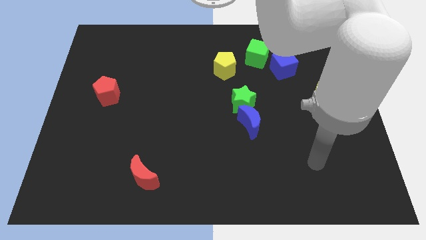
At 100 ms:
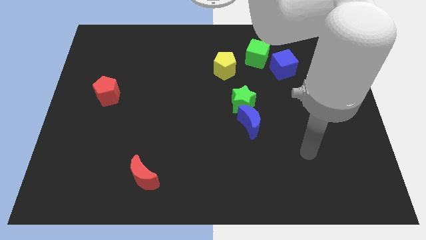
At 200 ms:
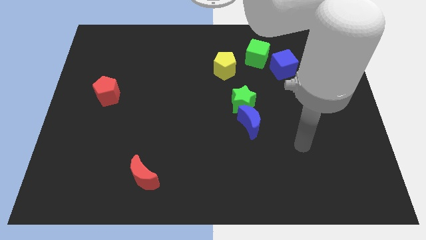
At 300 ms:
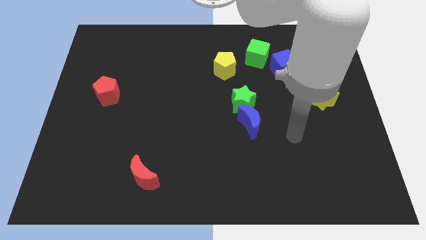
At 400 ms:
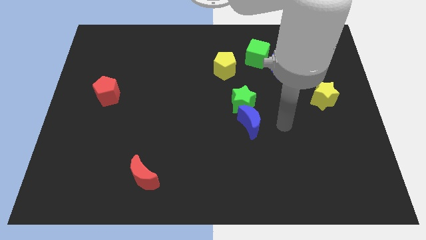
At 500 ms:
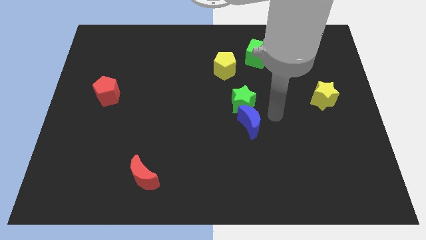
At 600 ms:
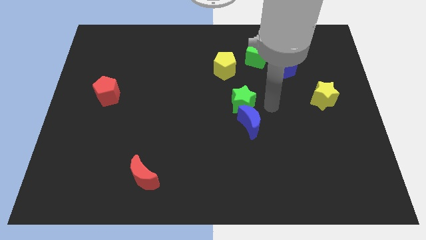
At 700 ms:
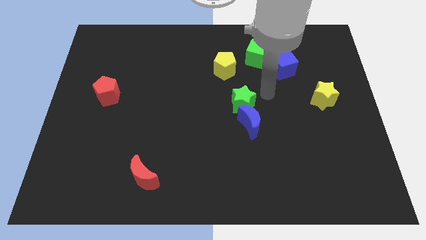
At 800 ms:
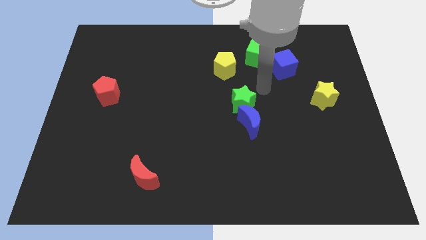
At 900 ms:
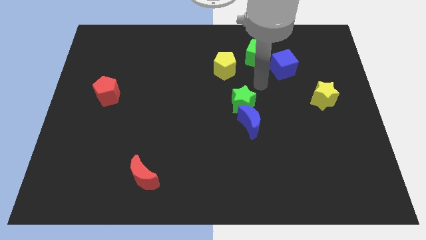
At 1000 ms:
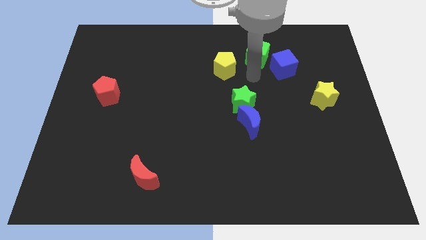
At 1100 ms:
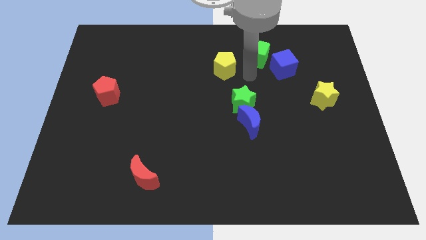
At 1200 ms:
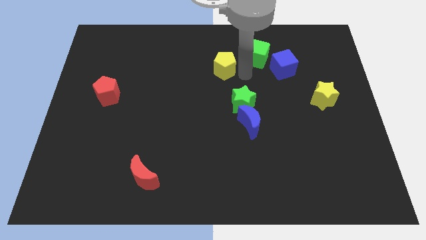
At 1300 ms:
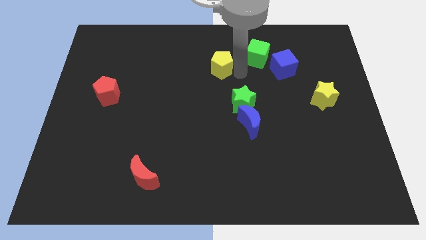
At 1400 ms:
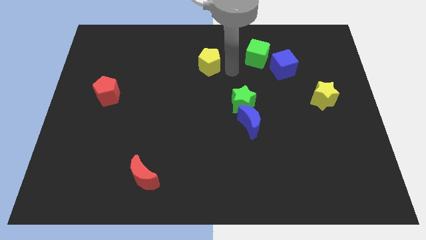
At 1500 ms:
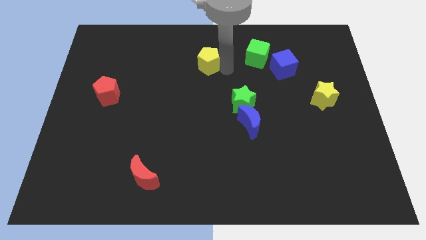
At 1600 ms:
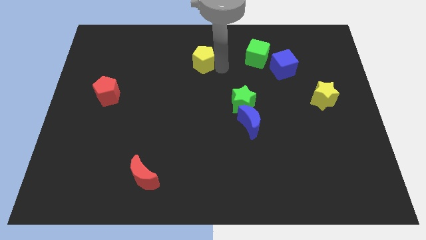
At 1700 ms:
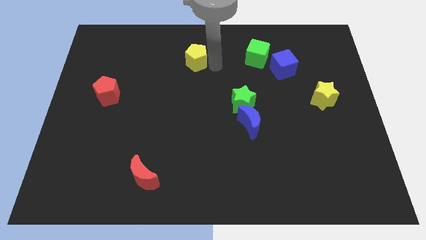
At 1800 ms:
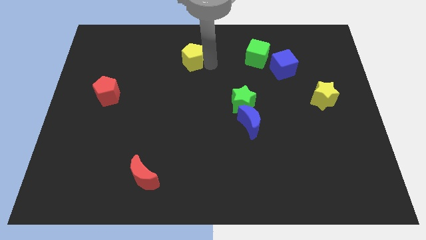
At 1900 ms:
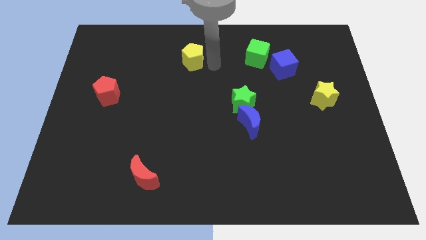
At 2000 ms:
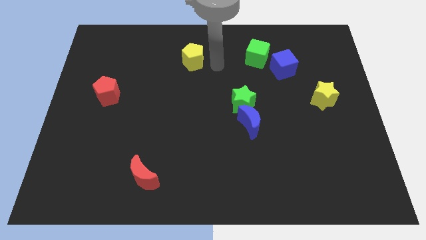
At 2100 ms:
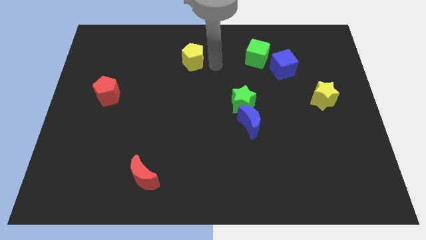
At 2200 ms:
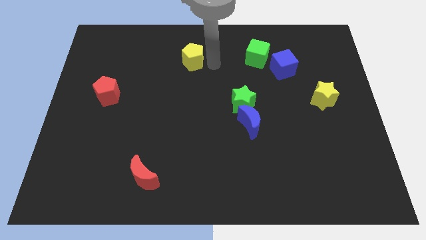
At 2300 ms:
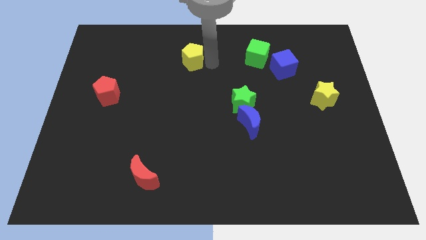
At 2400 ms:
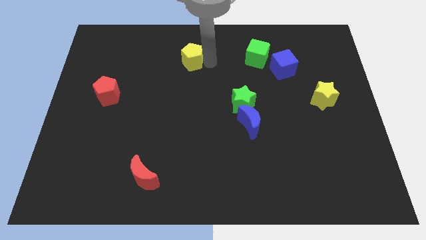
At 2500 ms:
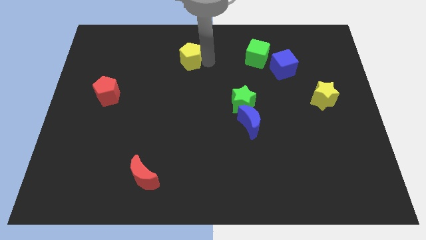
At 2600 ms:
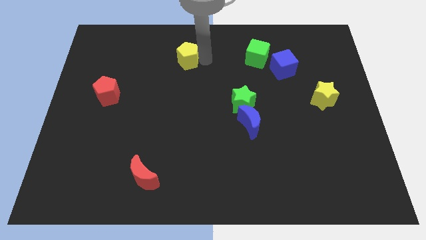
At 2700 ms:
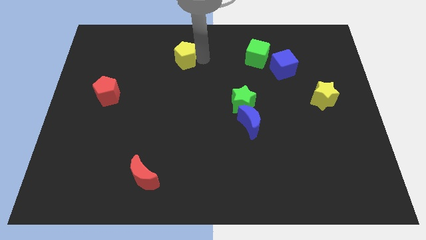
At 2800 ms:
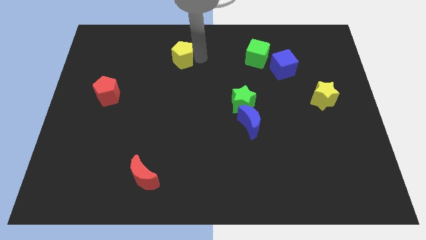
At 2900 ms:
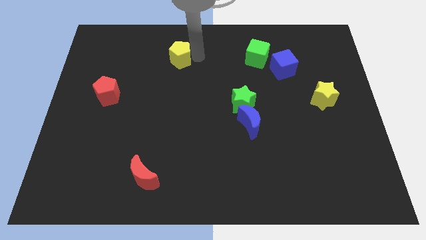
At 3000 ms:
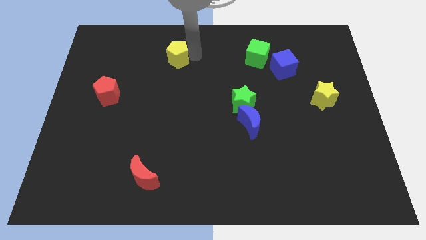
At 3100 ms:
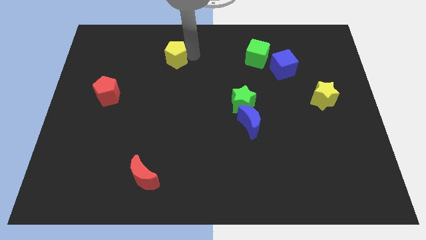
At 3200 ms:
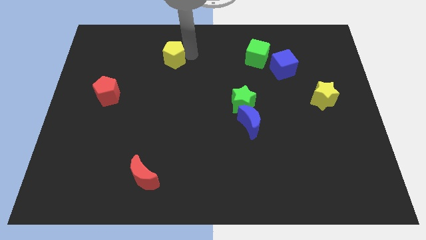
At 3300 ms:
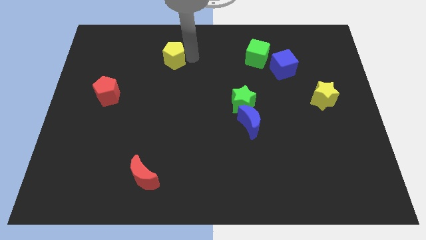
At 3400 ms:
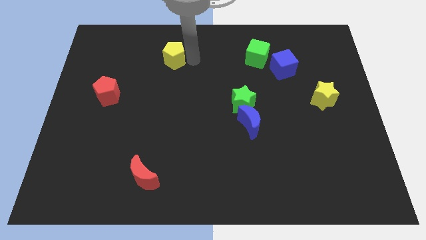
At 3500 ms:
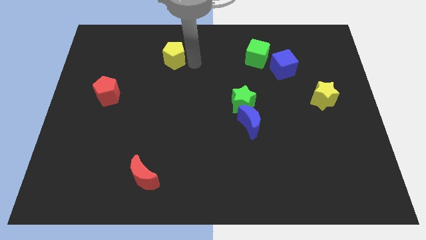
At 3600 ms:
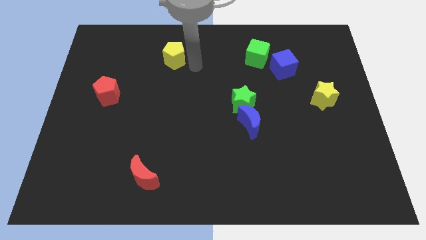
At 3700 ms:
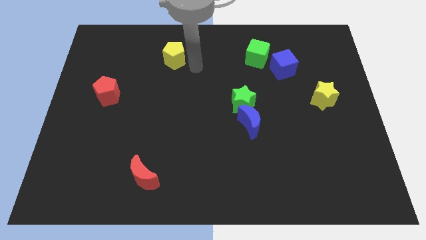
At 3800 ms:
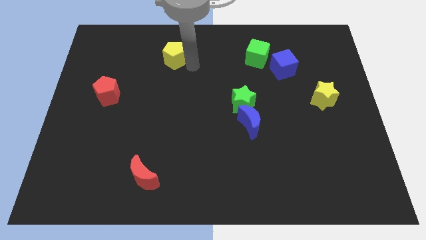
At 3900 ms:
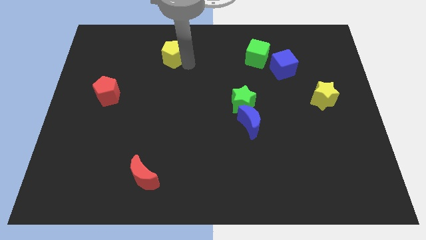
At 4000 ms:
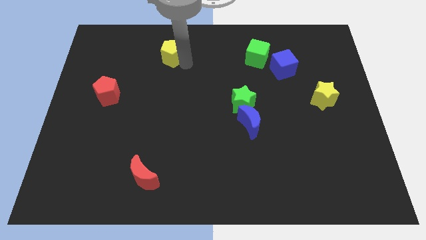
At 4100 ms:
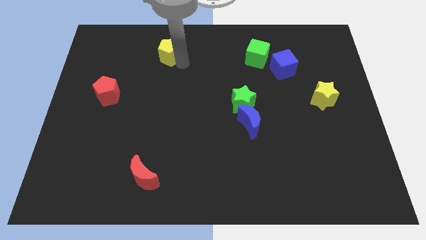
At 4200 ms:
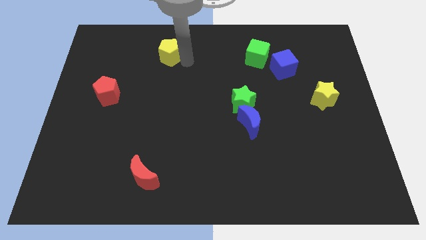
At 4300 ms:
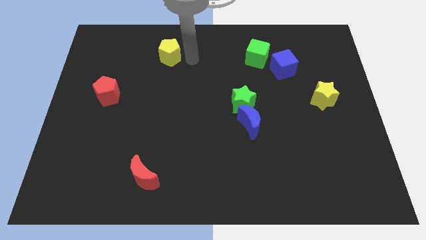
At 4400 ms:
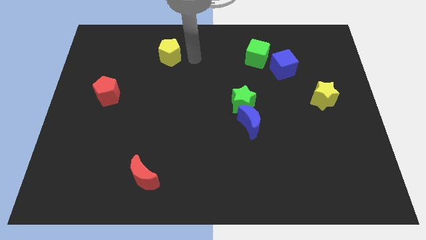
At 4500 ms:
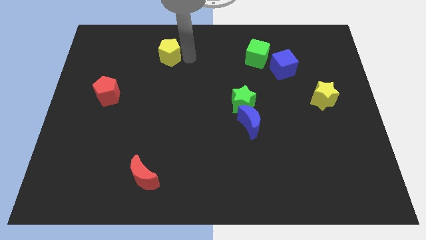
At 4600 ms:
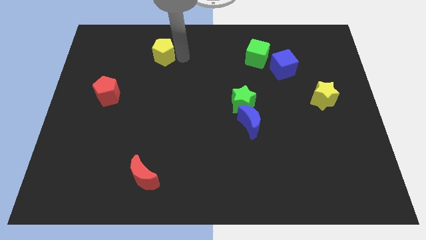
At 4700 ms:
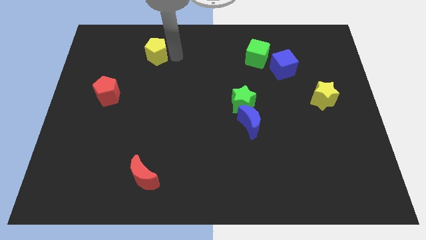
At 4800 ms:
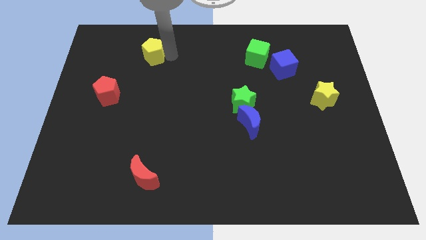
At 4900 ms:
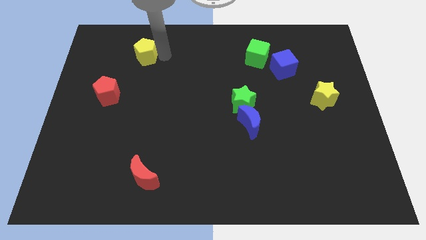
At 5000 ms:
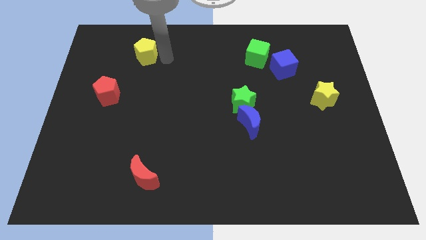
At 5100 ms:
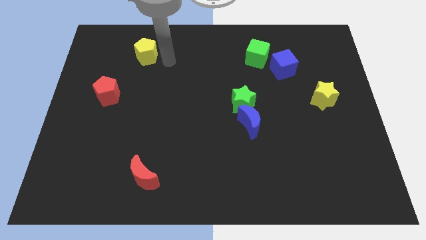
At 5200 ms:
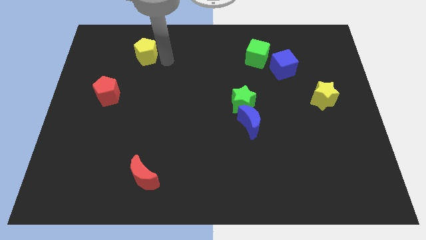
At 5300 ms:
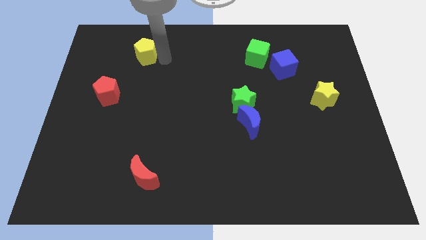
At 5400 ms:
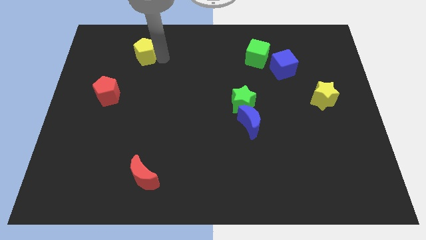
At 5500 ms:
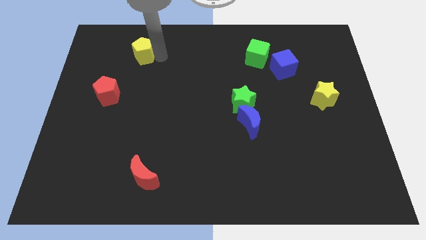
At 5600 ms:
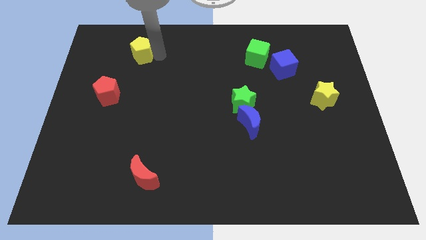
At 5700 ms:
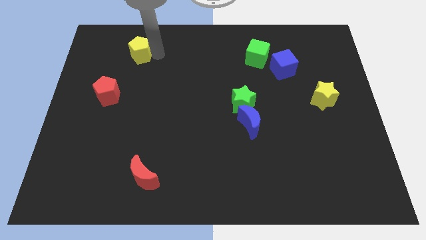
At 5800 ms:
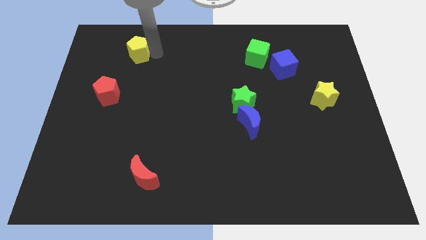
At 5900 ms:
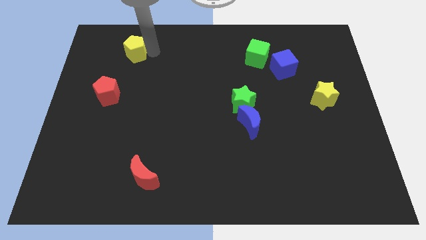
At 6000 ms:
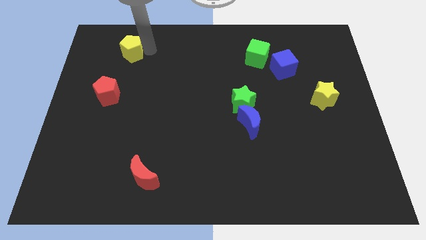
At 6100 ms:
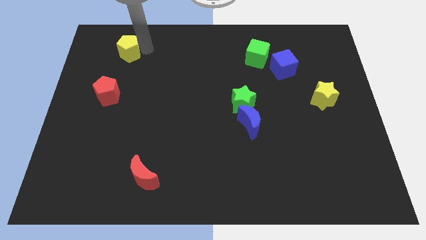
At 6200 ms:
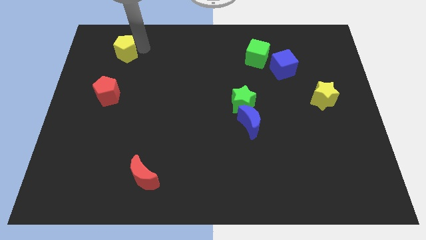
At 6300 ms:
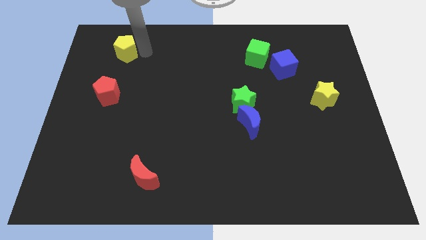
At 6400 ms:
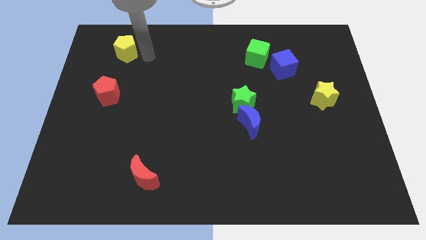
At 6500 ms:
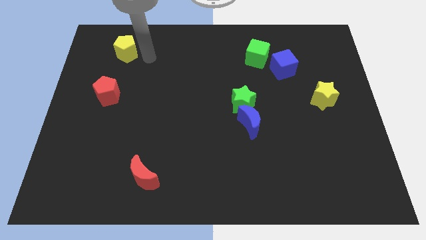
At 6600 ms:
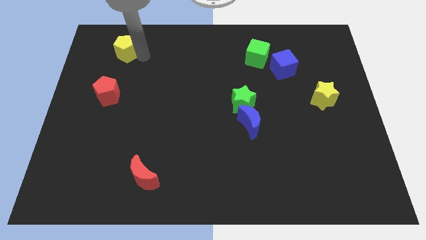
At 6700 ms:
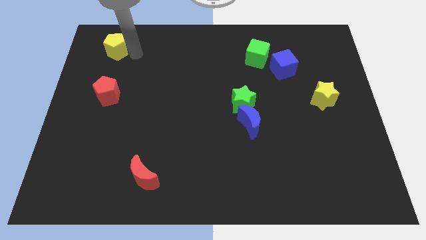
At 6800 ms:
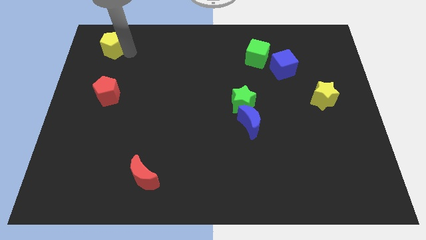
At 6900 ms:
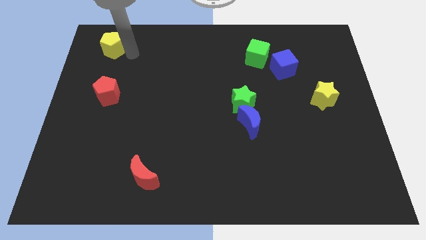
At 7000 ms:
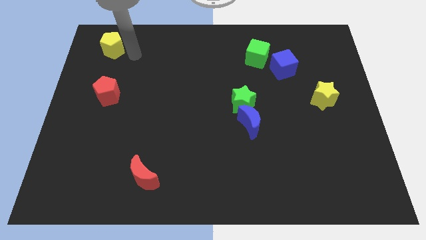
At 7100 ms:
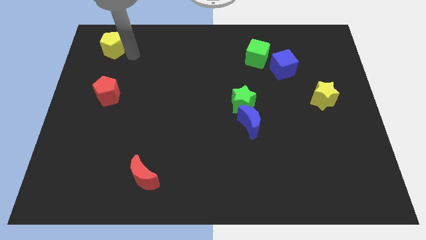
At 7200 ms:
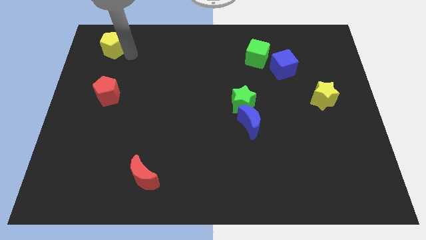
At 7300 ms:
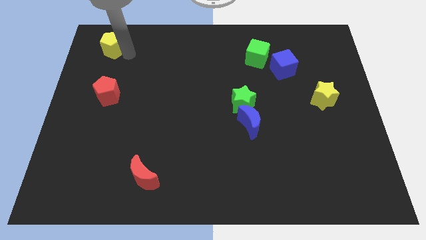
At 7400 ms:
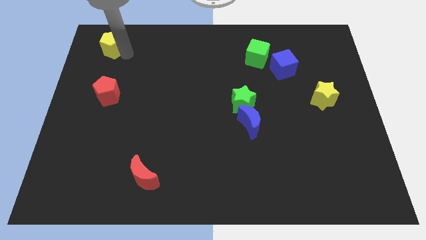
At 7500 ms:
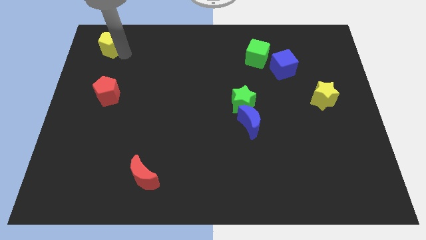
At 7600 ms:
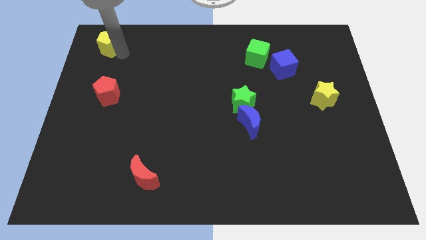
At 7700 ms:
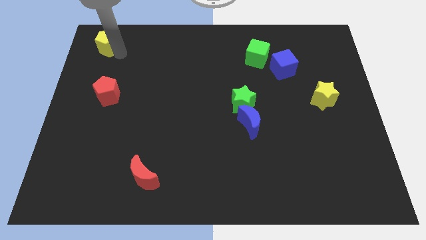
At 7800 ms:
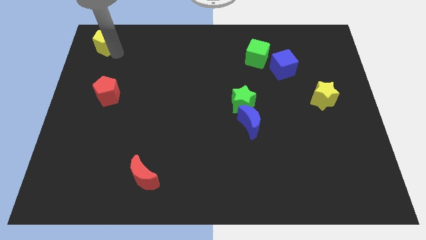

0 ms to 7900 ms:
put the yellow pentagon to the upper left corner
